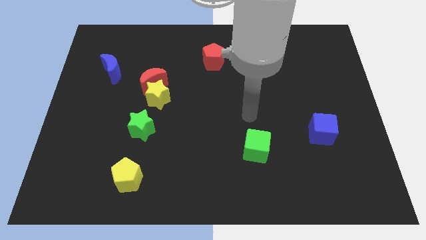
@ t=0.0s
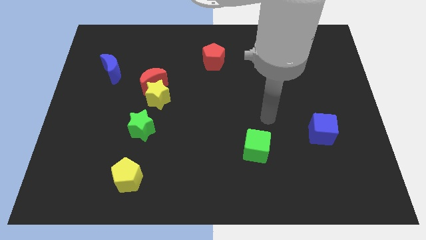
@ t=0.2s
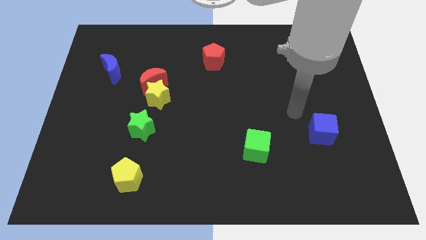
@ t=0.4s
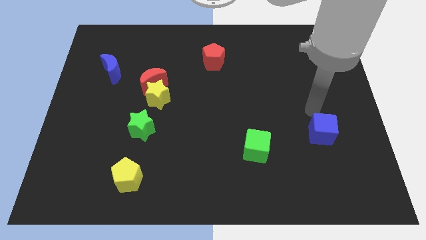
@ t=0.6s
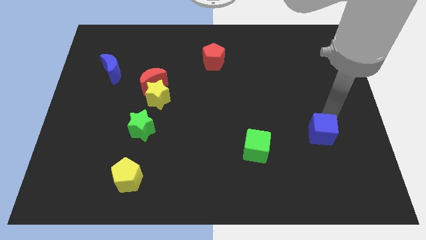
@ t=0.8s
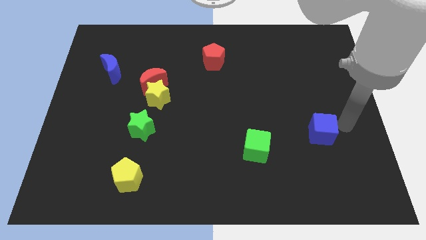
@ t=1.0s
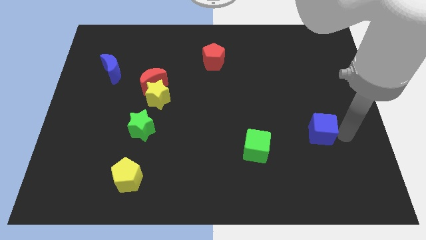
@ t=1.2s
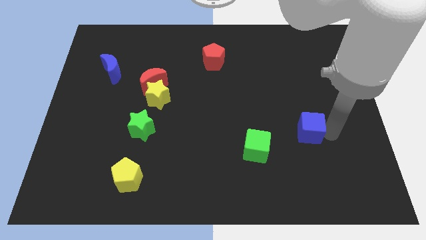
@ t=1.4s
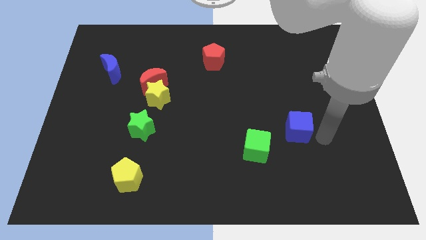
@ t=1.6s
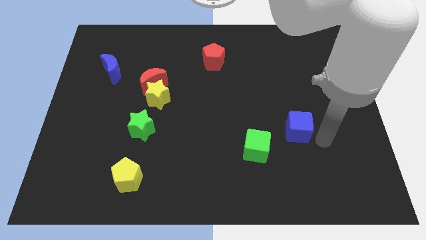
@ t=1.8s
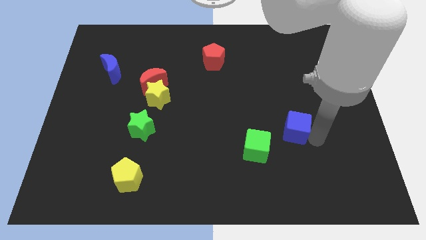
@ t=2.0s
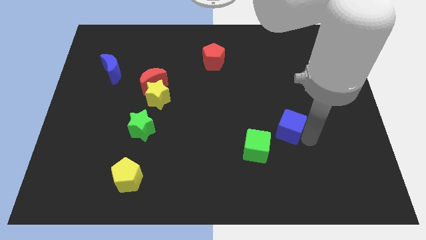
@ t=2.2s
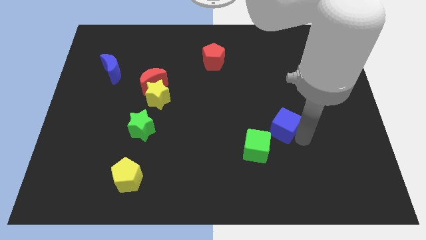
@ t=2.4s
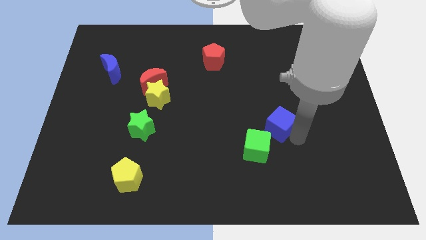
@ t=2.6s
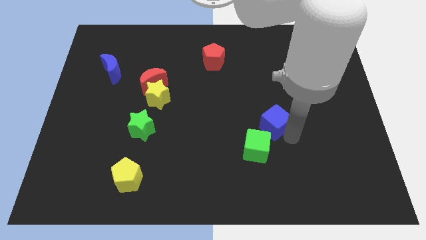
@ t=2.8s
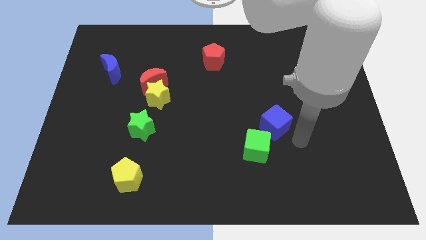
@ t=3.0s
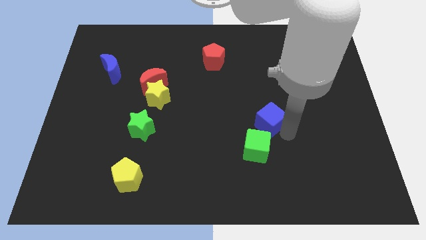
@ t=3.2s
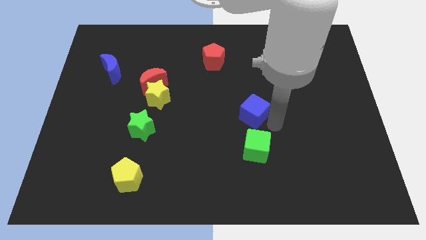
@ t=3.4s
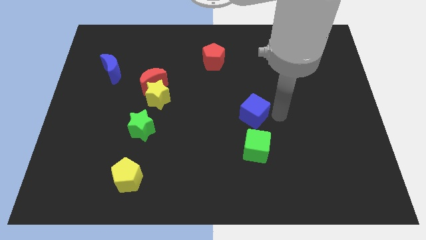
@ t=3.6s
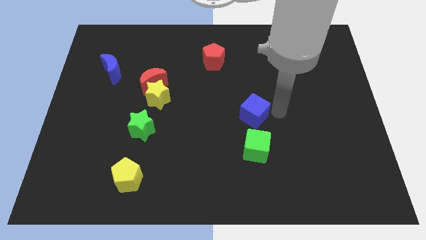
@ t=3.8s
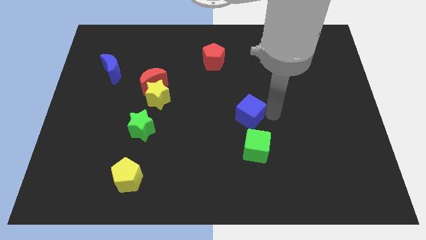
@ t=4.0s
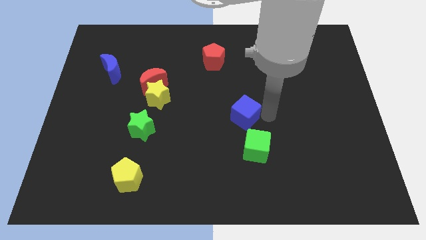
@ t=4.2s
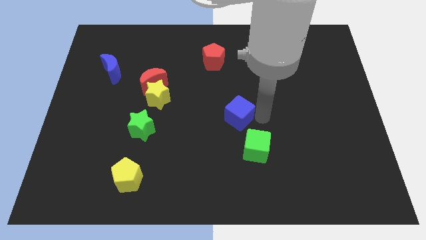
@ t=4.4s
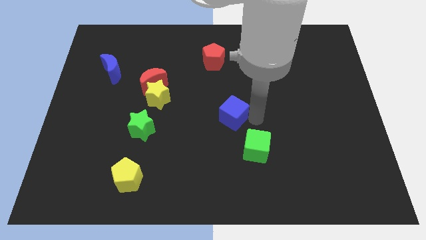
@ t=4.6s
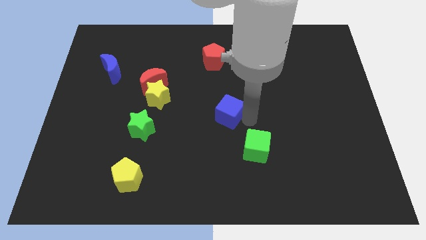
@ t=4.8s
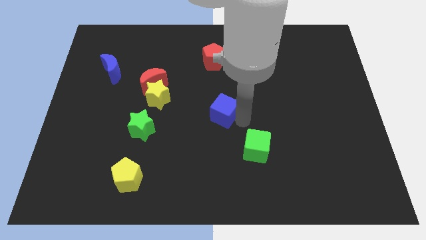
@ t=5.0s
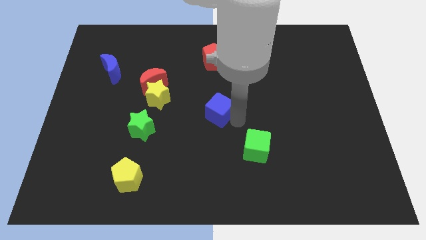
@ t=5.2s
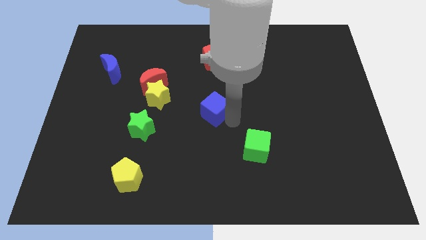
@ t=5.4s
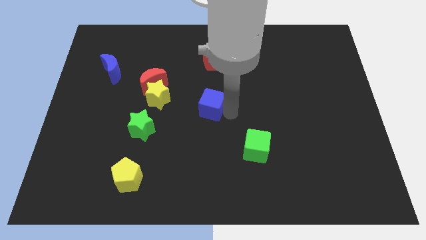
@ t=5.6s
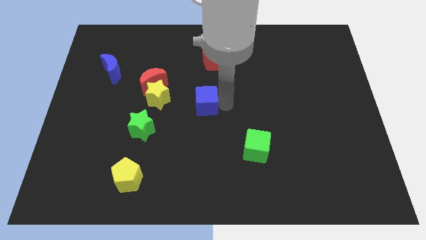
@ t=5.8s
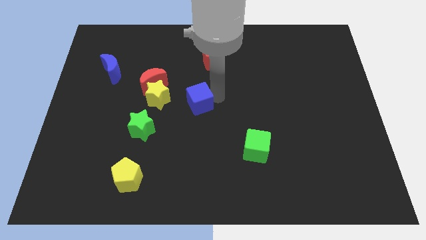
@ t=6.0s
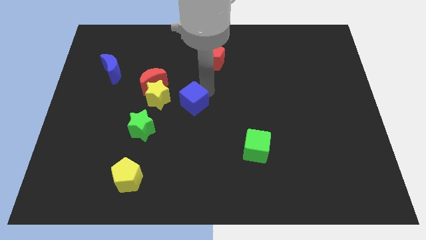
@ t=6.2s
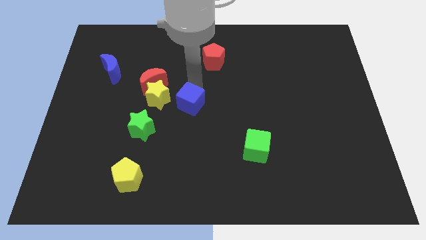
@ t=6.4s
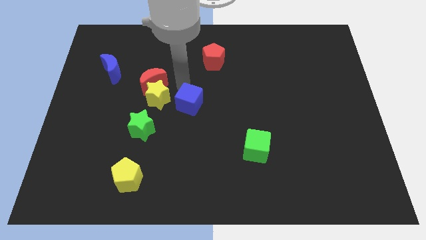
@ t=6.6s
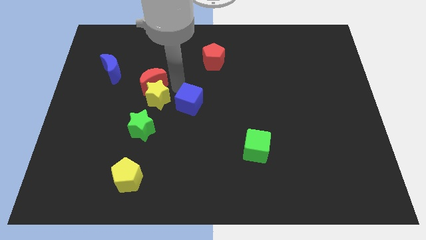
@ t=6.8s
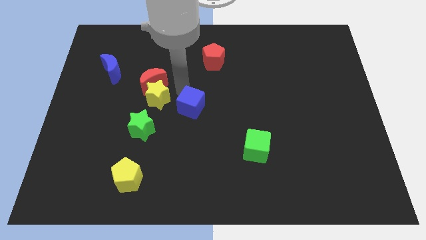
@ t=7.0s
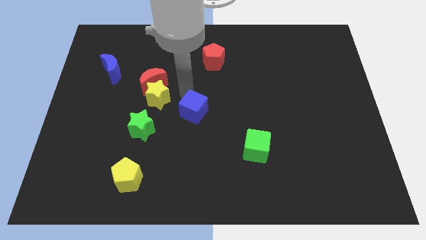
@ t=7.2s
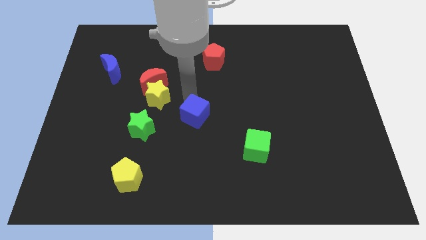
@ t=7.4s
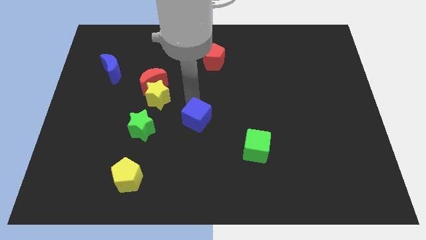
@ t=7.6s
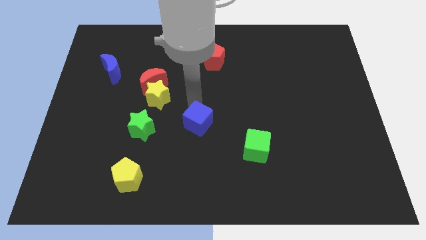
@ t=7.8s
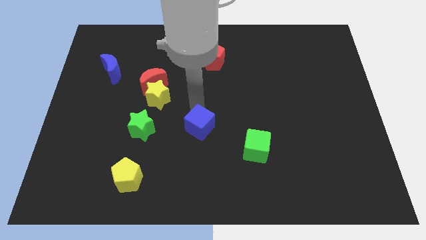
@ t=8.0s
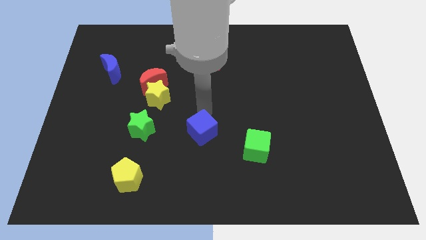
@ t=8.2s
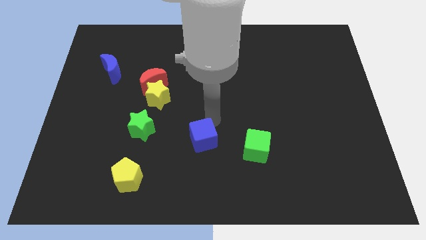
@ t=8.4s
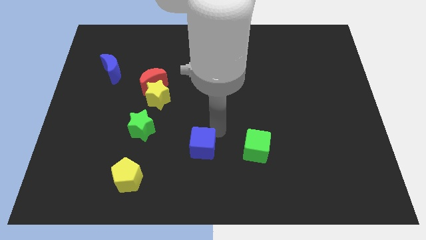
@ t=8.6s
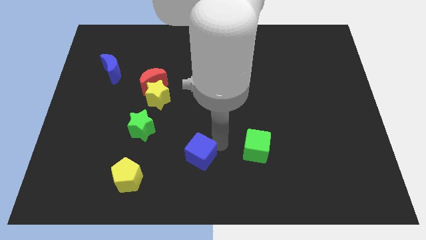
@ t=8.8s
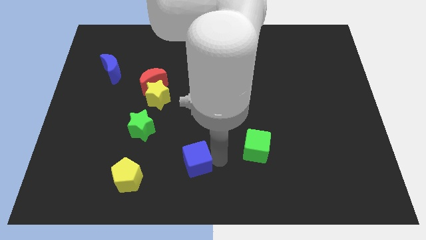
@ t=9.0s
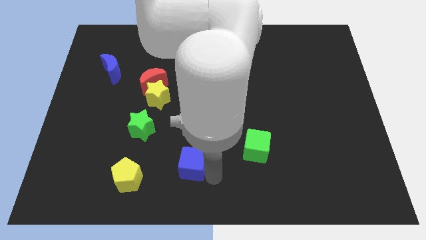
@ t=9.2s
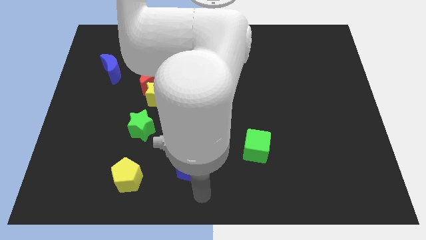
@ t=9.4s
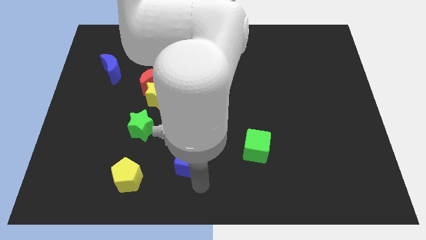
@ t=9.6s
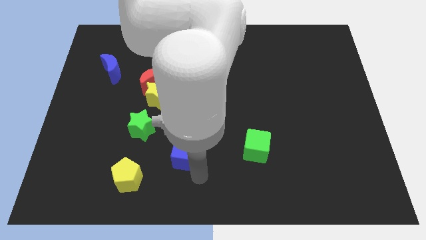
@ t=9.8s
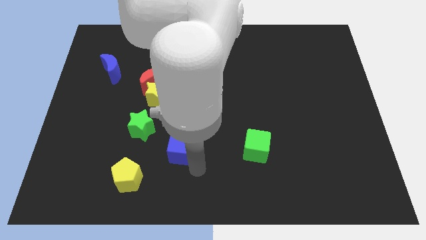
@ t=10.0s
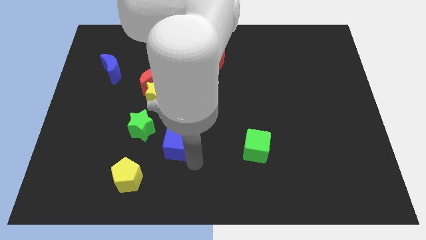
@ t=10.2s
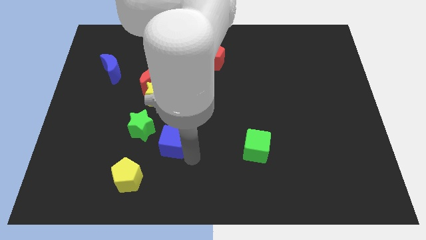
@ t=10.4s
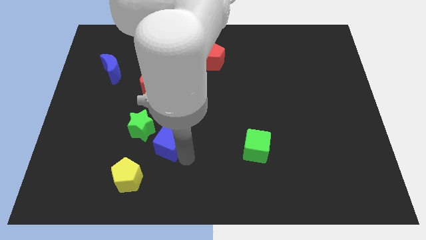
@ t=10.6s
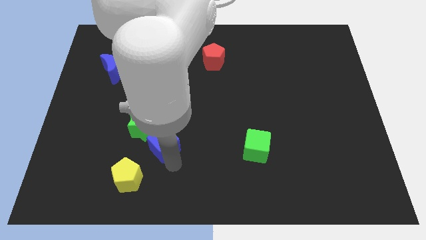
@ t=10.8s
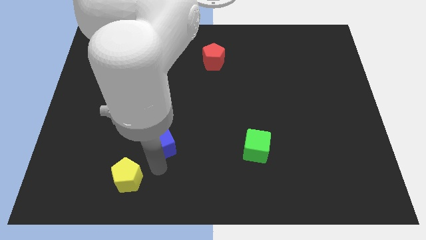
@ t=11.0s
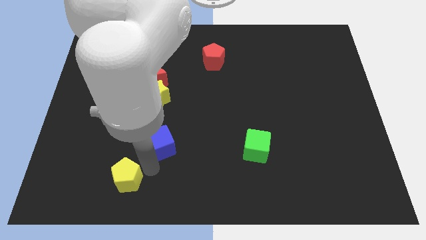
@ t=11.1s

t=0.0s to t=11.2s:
put the blue cube next to the green star

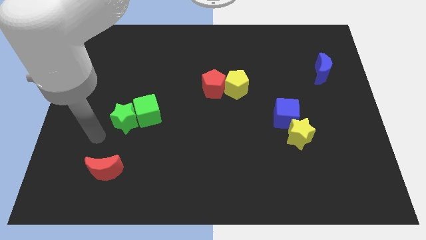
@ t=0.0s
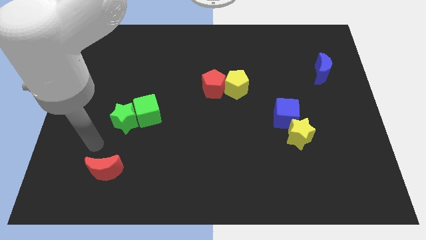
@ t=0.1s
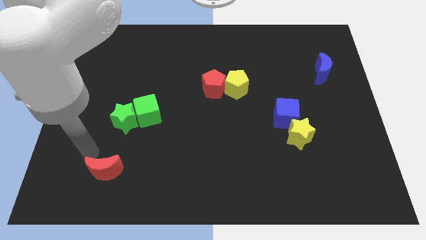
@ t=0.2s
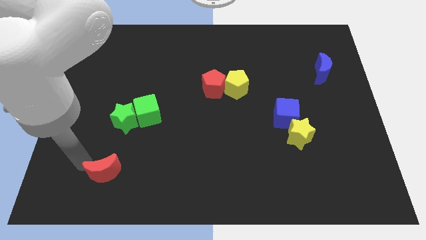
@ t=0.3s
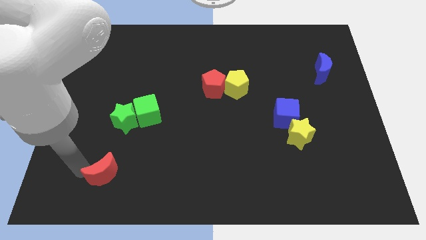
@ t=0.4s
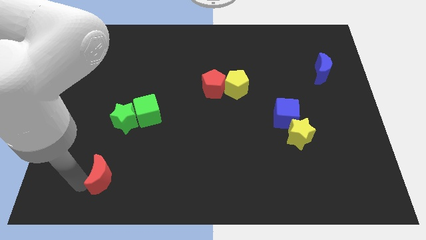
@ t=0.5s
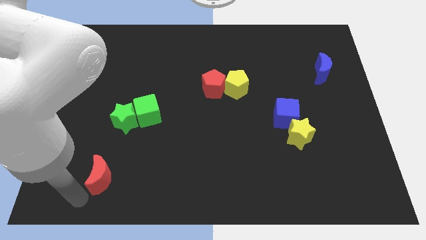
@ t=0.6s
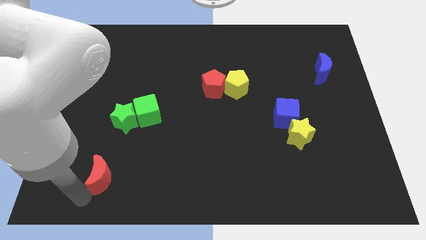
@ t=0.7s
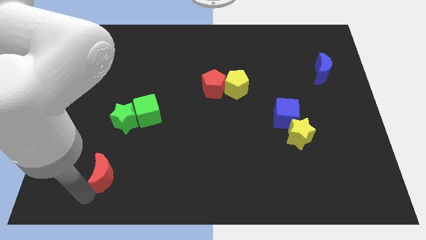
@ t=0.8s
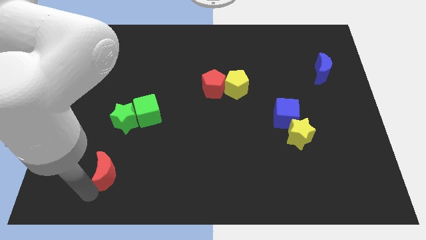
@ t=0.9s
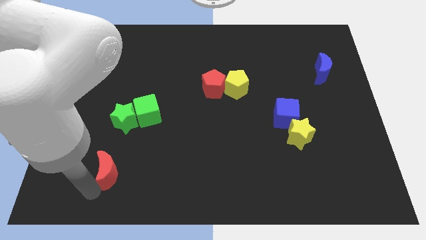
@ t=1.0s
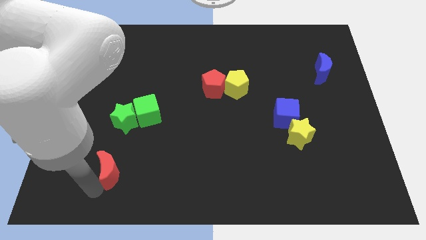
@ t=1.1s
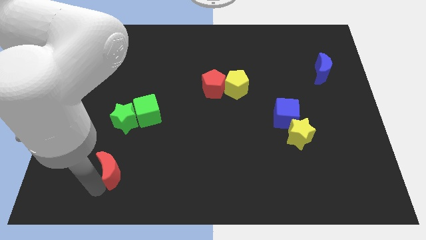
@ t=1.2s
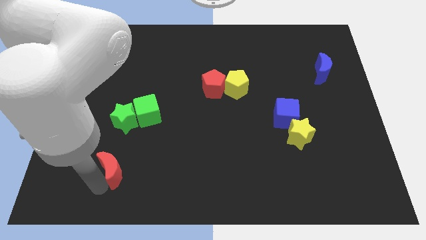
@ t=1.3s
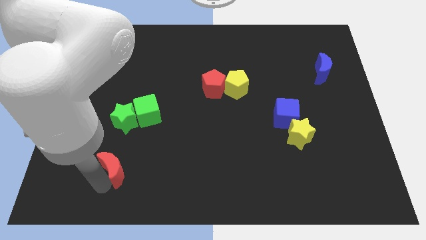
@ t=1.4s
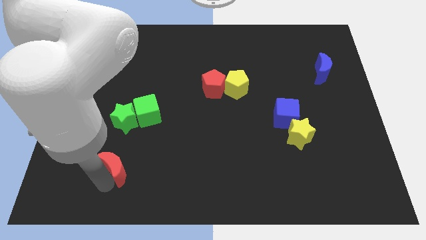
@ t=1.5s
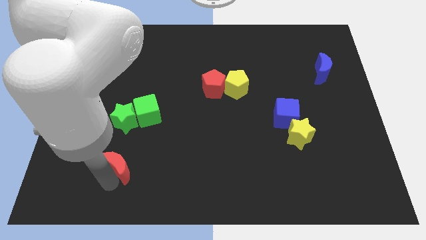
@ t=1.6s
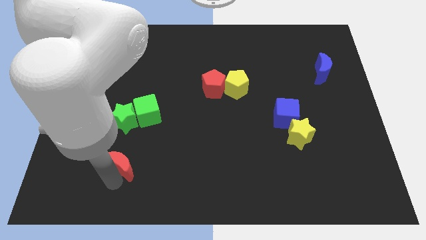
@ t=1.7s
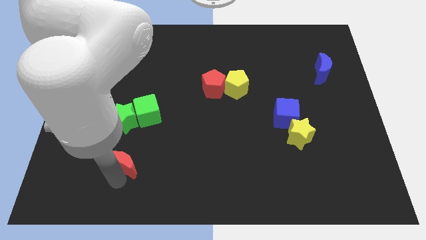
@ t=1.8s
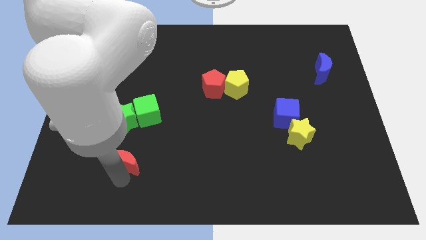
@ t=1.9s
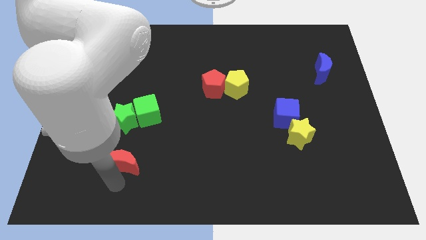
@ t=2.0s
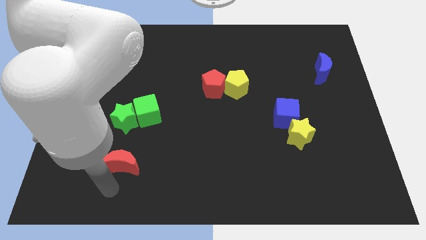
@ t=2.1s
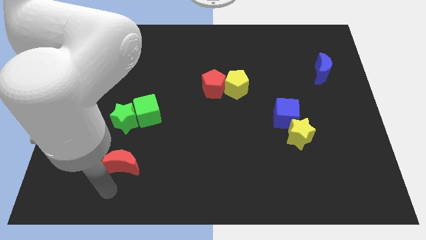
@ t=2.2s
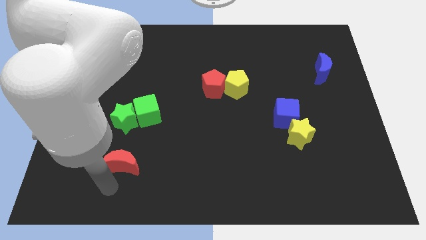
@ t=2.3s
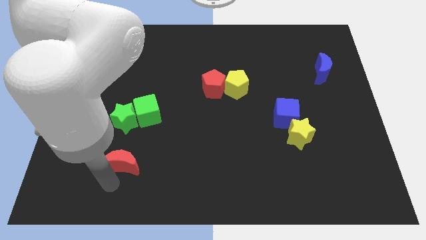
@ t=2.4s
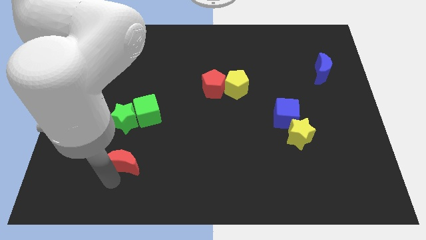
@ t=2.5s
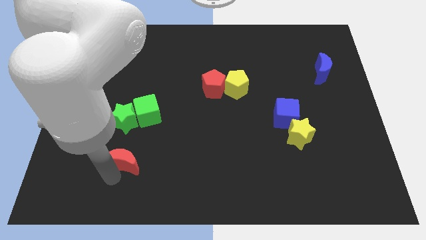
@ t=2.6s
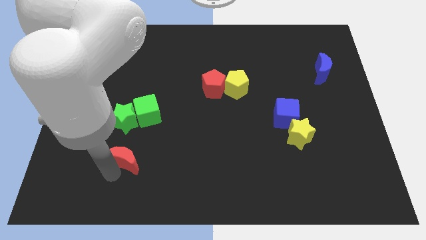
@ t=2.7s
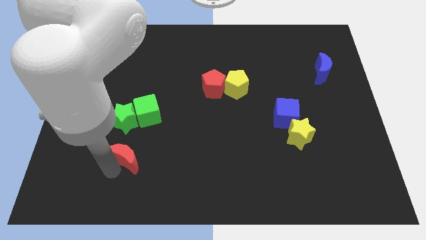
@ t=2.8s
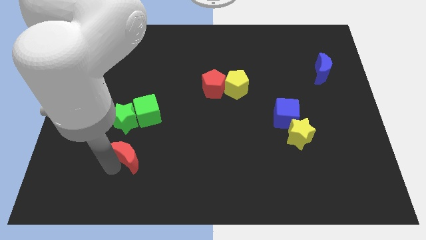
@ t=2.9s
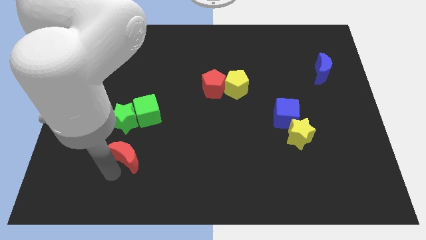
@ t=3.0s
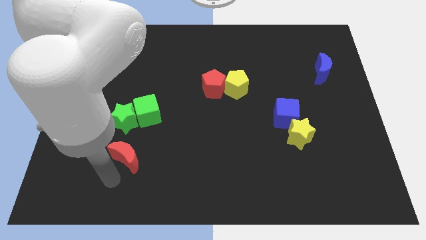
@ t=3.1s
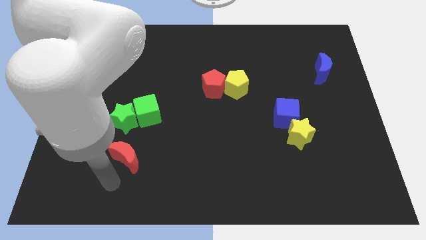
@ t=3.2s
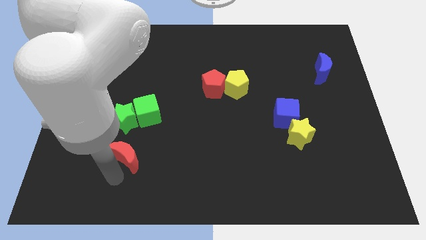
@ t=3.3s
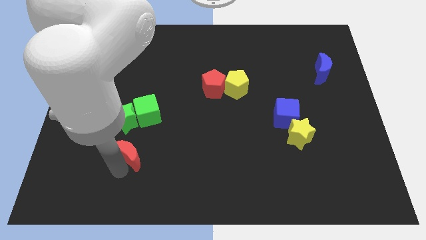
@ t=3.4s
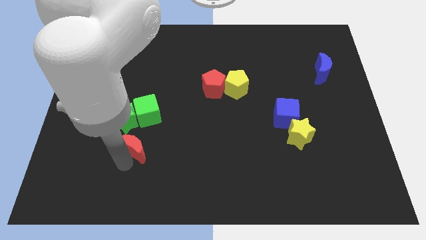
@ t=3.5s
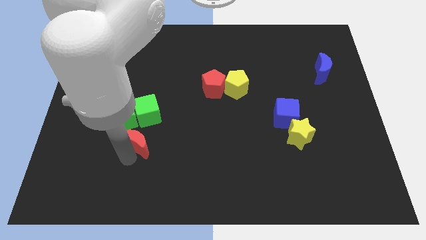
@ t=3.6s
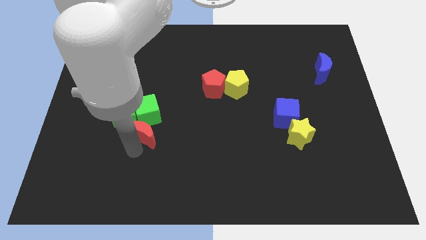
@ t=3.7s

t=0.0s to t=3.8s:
put the red moon to the green cube
